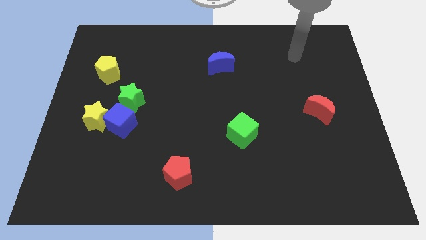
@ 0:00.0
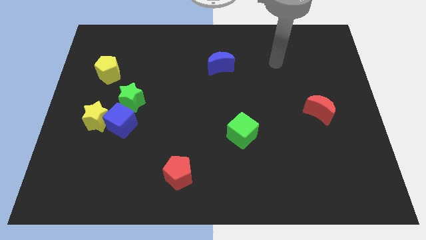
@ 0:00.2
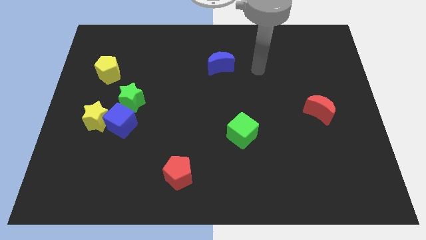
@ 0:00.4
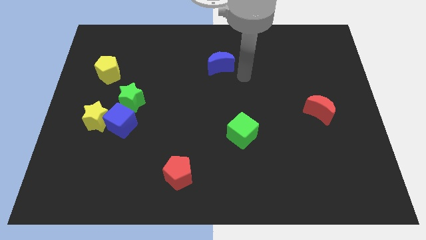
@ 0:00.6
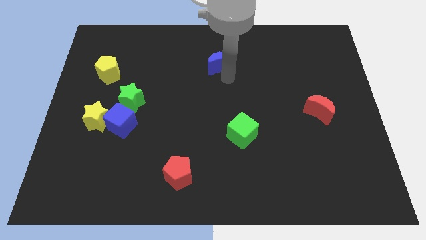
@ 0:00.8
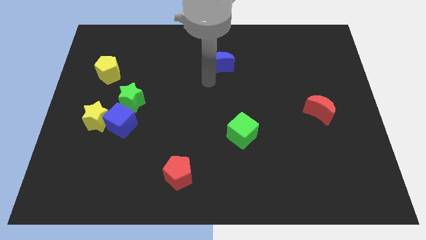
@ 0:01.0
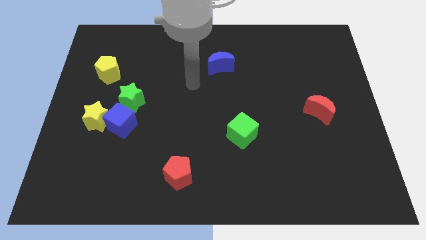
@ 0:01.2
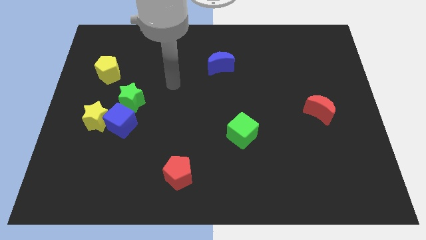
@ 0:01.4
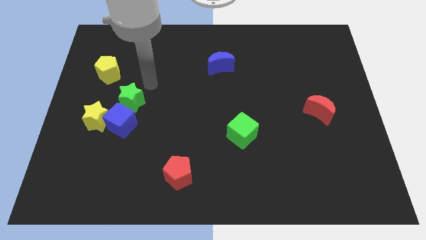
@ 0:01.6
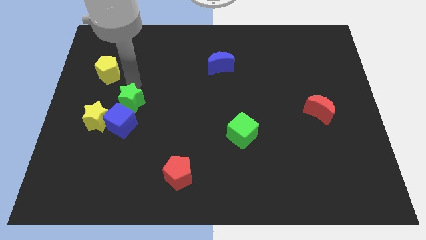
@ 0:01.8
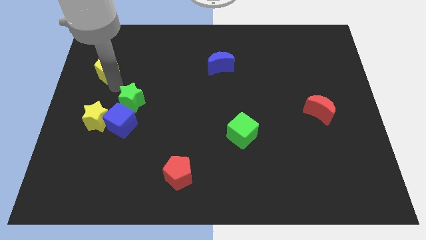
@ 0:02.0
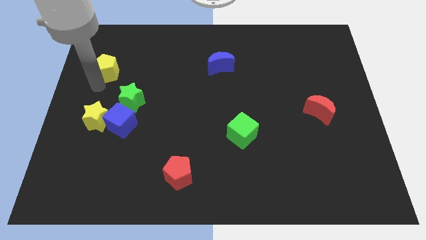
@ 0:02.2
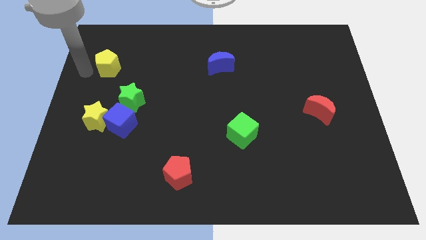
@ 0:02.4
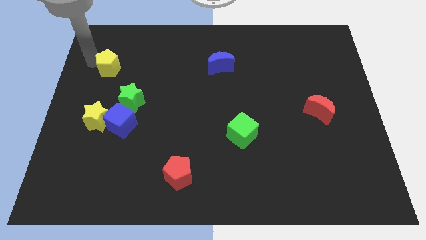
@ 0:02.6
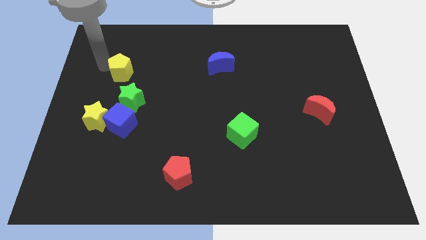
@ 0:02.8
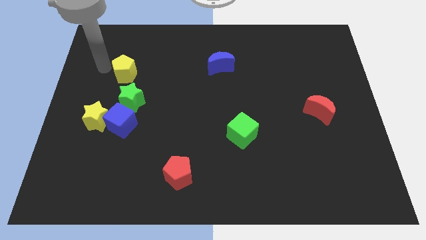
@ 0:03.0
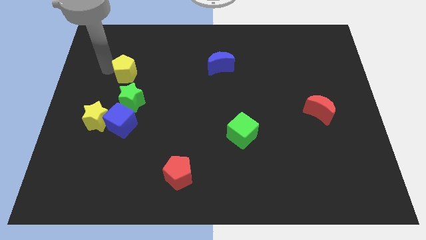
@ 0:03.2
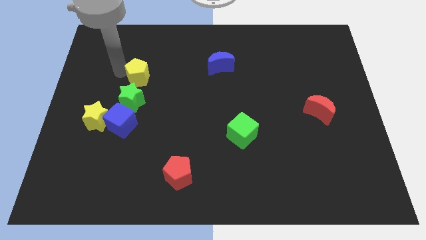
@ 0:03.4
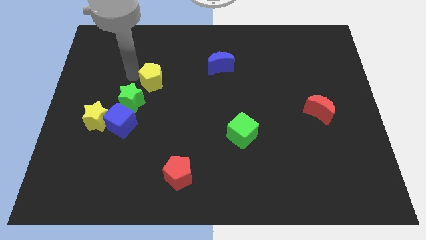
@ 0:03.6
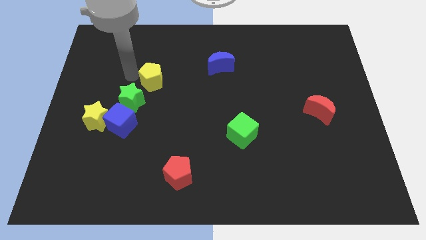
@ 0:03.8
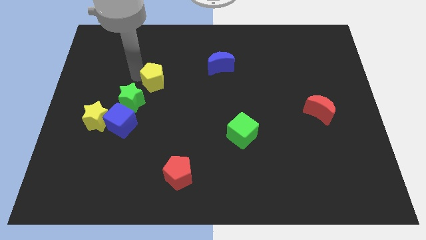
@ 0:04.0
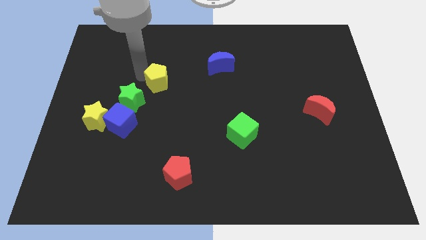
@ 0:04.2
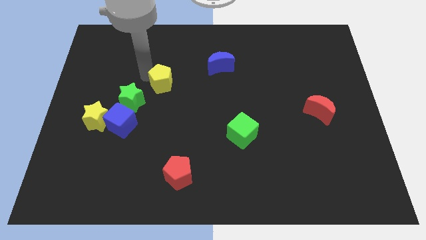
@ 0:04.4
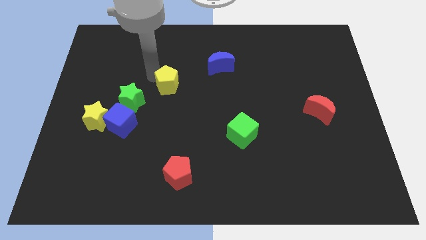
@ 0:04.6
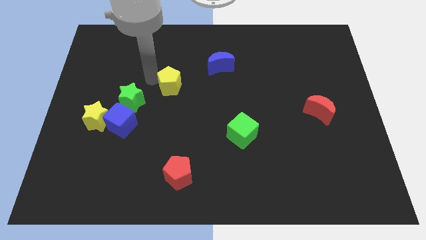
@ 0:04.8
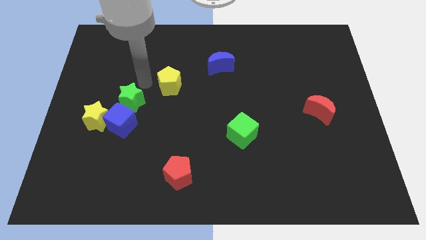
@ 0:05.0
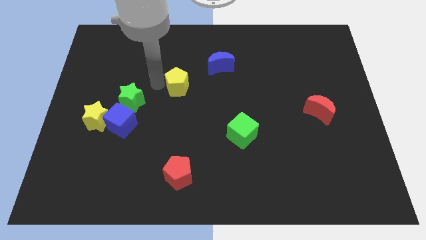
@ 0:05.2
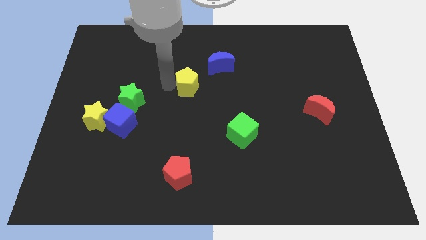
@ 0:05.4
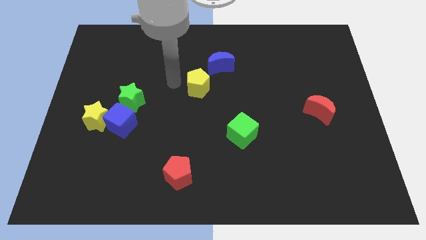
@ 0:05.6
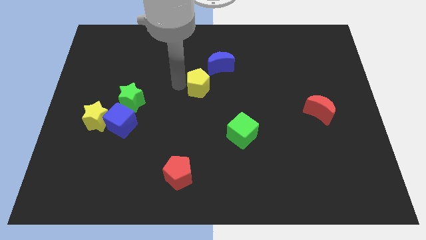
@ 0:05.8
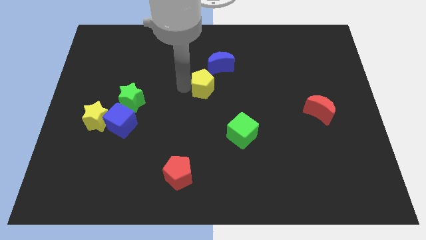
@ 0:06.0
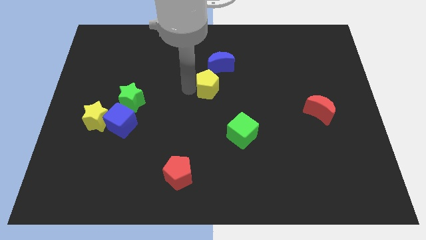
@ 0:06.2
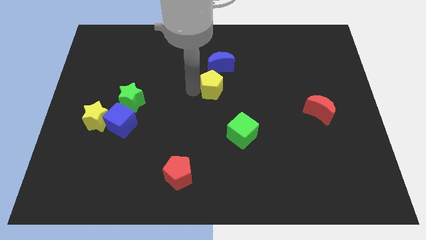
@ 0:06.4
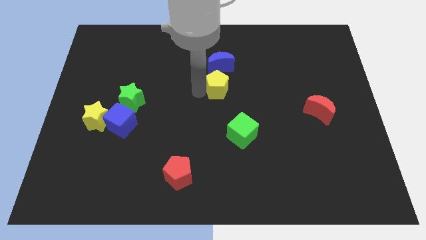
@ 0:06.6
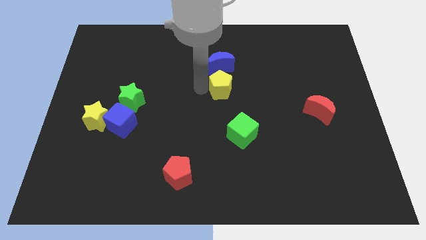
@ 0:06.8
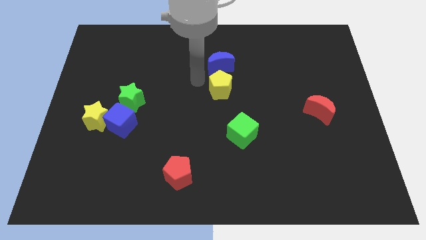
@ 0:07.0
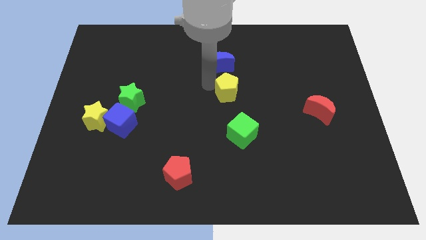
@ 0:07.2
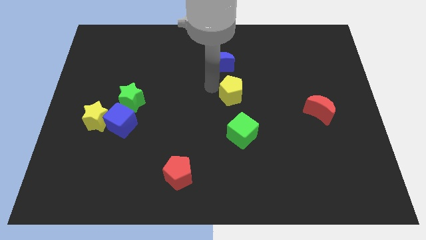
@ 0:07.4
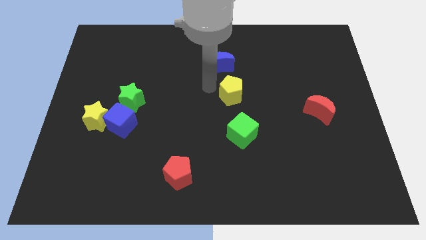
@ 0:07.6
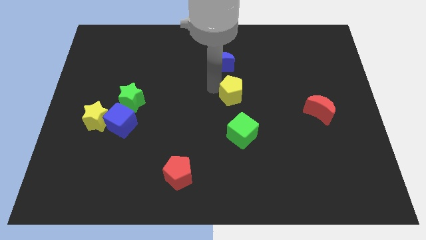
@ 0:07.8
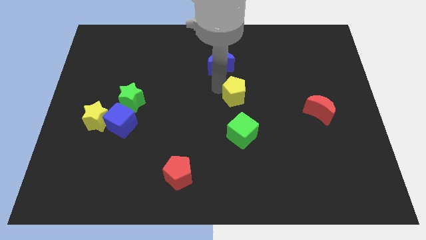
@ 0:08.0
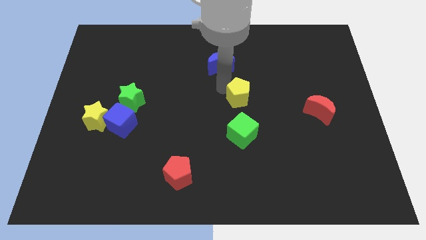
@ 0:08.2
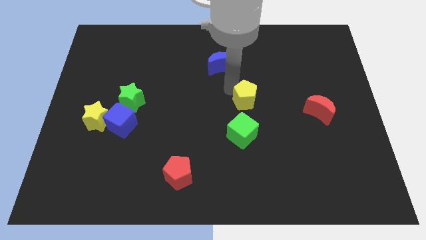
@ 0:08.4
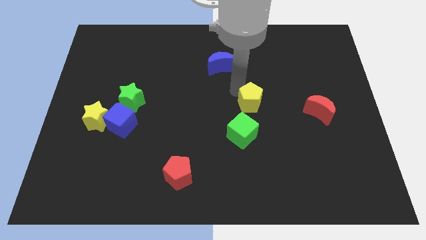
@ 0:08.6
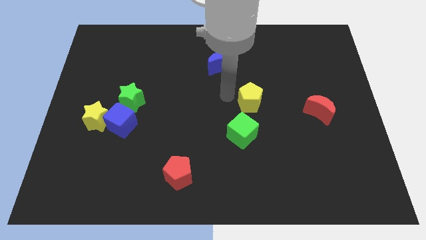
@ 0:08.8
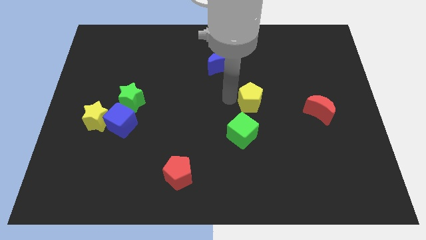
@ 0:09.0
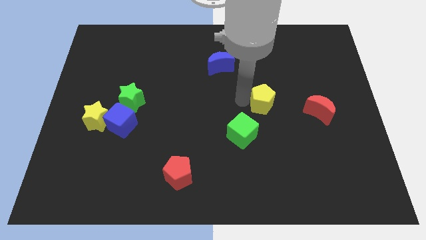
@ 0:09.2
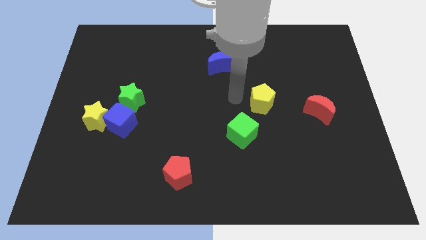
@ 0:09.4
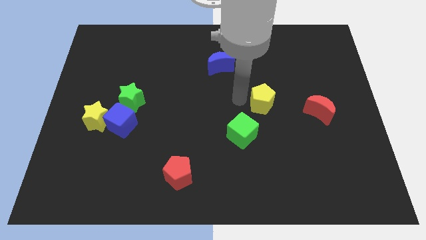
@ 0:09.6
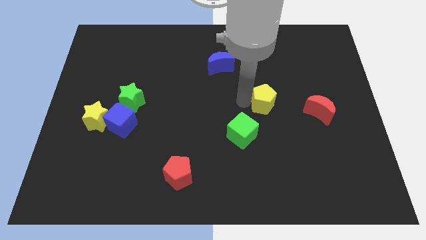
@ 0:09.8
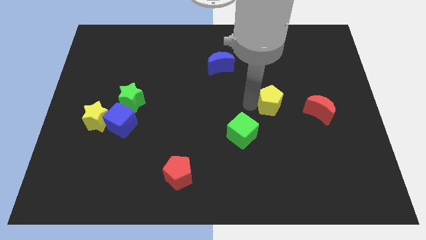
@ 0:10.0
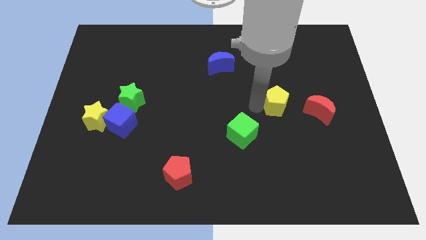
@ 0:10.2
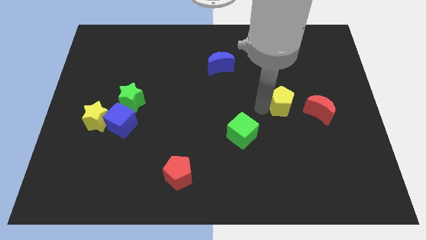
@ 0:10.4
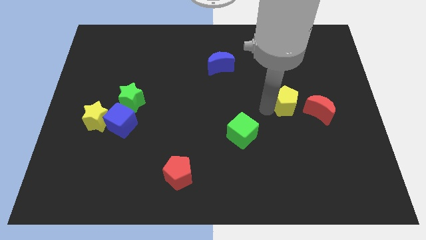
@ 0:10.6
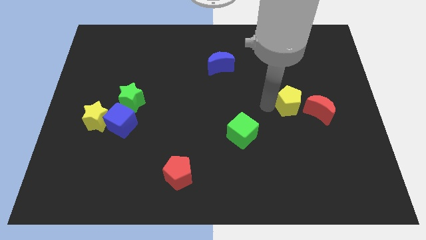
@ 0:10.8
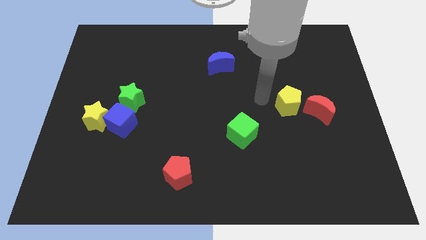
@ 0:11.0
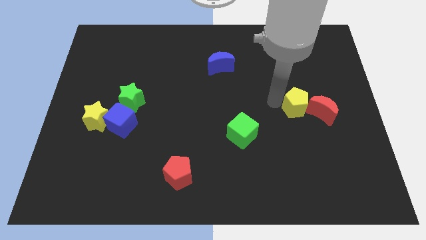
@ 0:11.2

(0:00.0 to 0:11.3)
push the yellow pentagon next to the red moon
